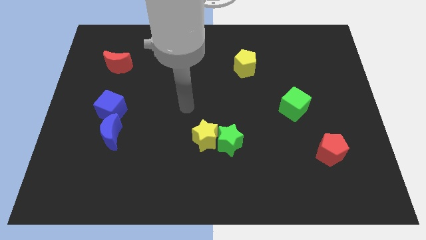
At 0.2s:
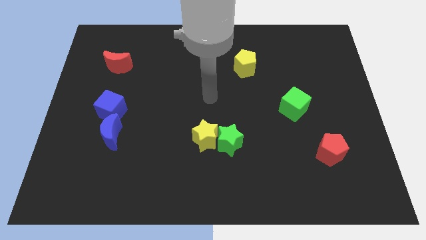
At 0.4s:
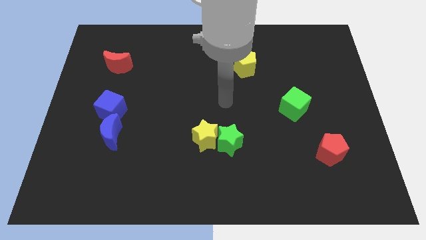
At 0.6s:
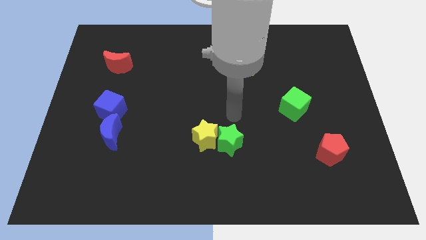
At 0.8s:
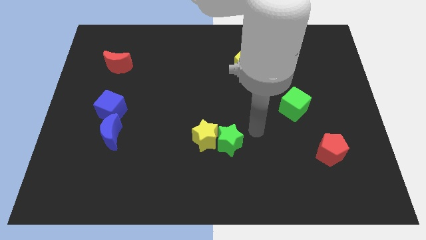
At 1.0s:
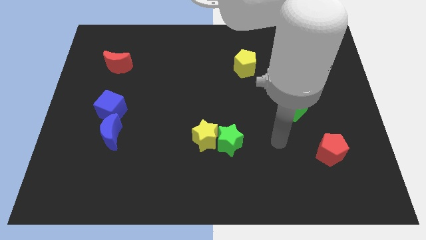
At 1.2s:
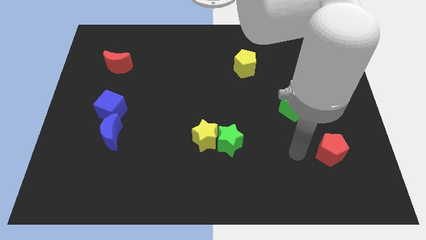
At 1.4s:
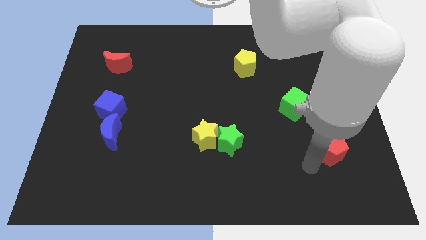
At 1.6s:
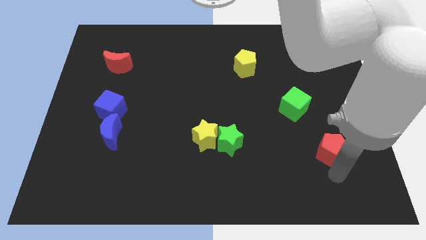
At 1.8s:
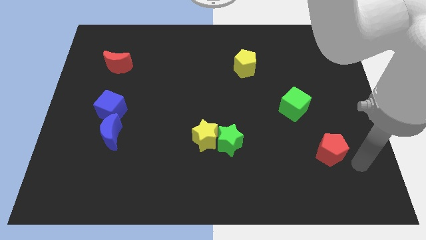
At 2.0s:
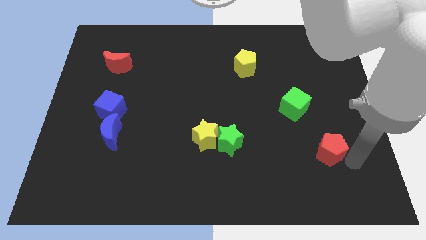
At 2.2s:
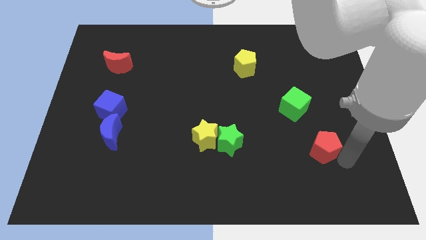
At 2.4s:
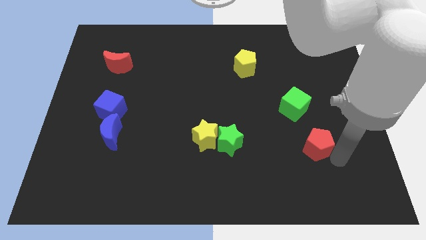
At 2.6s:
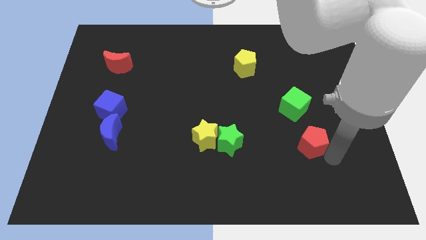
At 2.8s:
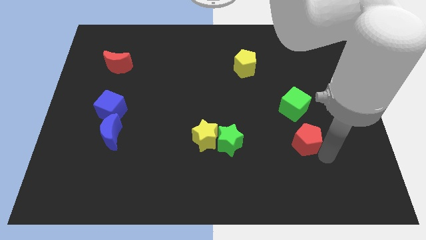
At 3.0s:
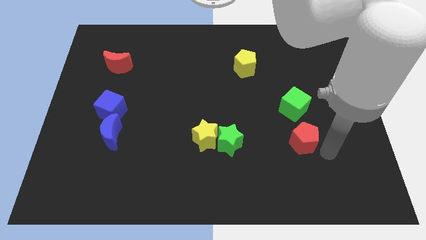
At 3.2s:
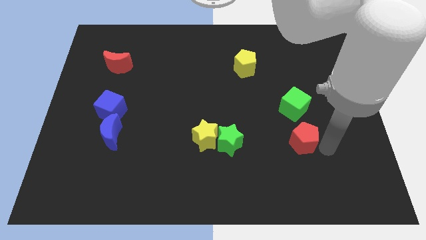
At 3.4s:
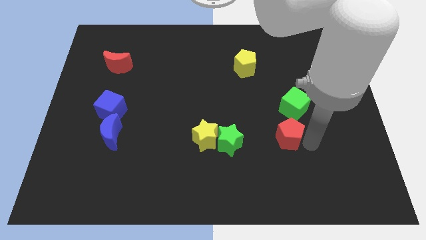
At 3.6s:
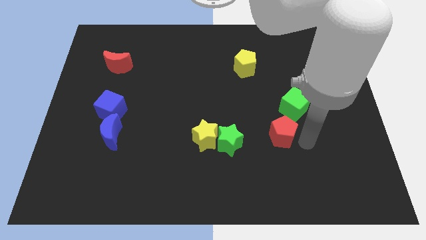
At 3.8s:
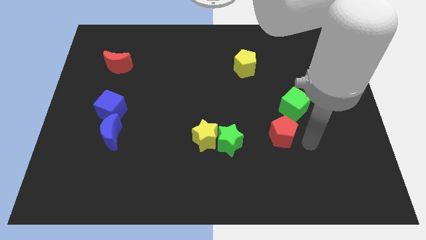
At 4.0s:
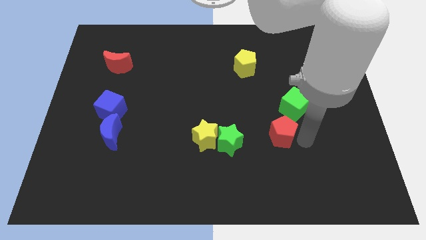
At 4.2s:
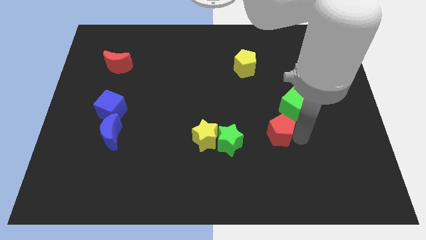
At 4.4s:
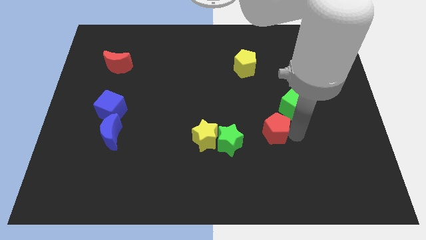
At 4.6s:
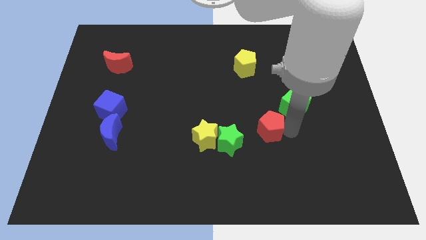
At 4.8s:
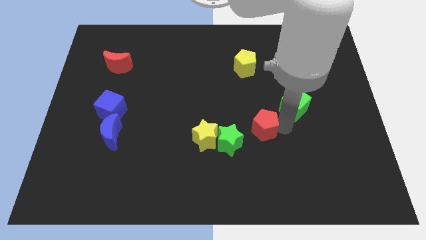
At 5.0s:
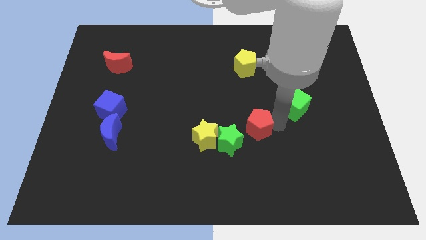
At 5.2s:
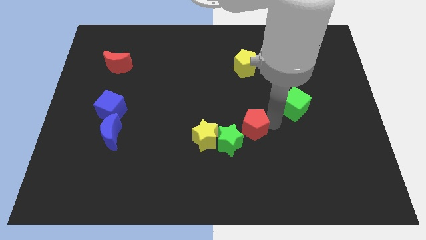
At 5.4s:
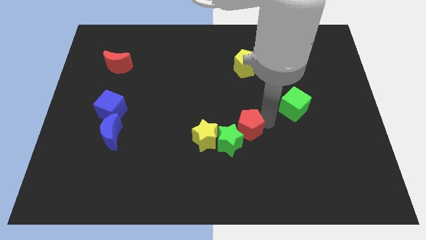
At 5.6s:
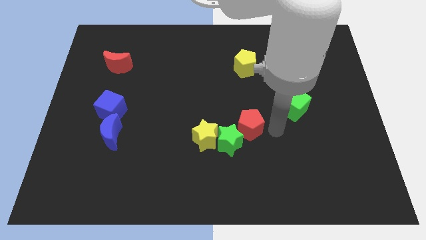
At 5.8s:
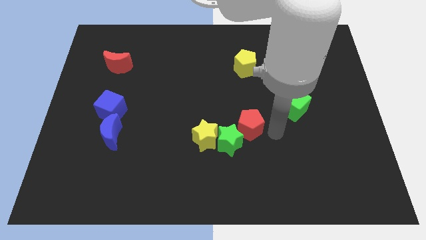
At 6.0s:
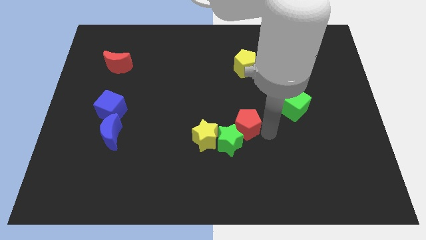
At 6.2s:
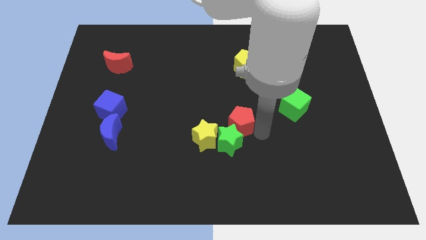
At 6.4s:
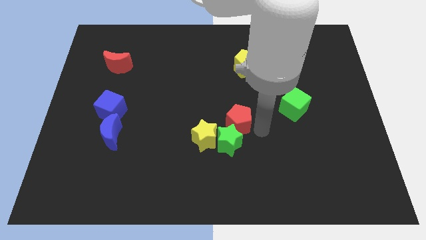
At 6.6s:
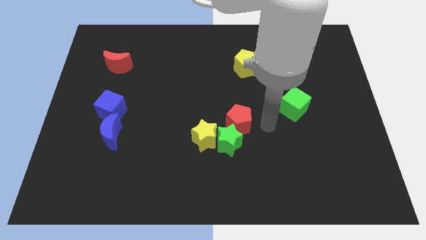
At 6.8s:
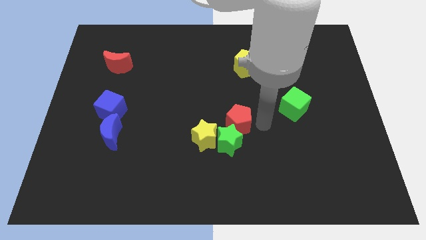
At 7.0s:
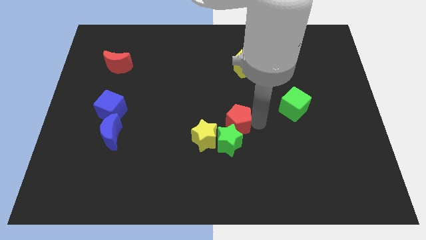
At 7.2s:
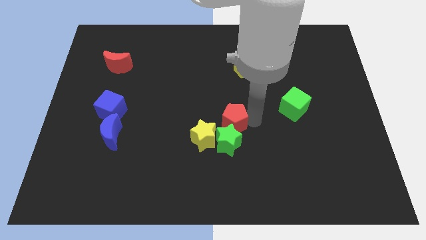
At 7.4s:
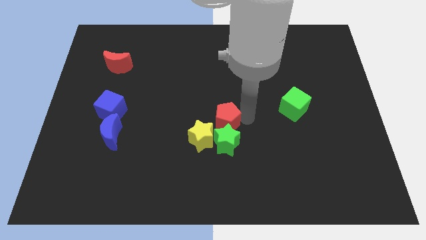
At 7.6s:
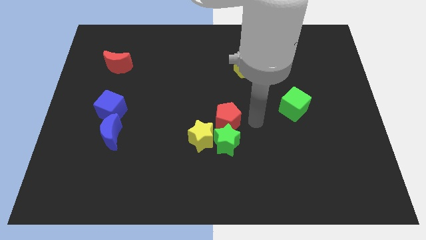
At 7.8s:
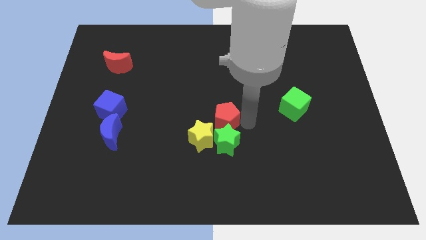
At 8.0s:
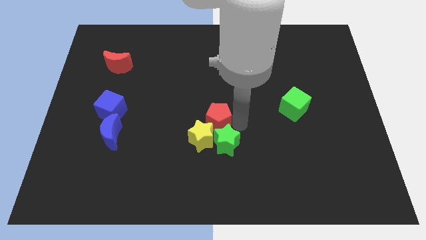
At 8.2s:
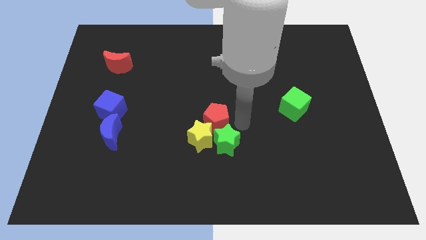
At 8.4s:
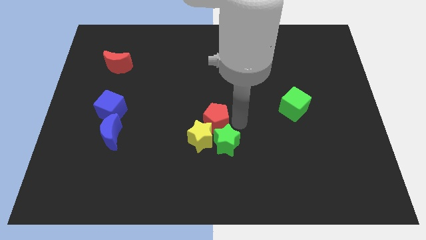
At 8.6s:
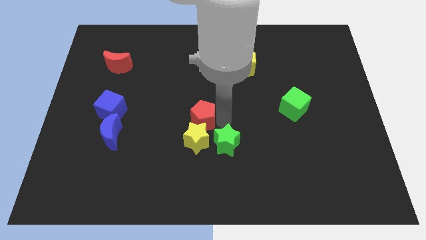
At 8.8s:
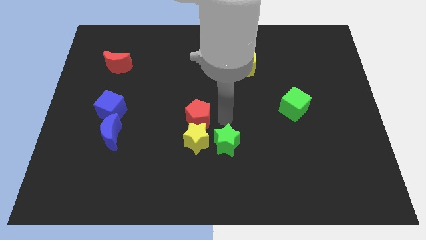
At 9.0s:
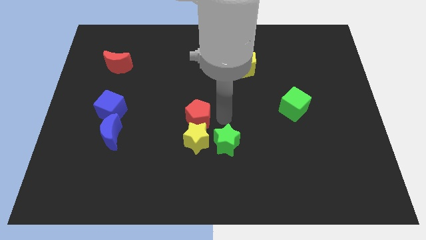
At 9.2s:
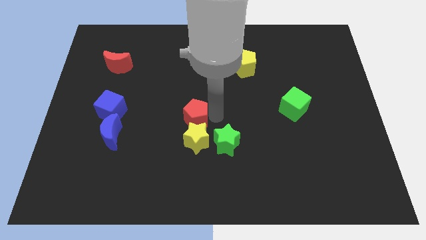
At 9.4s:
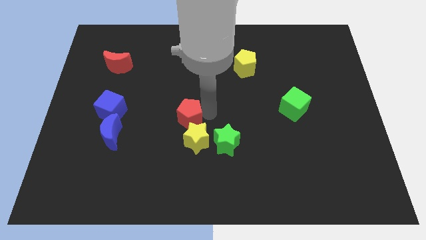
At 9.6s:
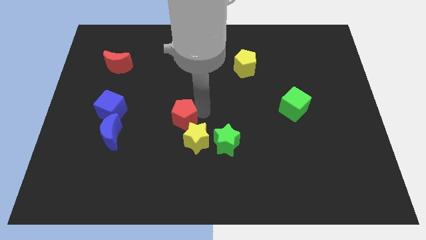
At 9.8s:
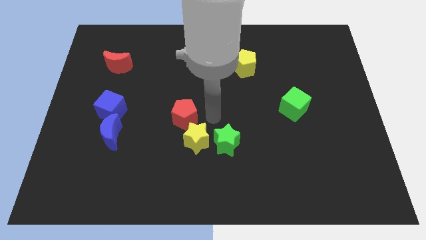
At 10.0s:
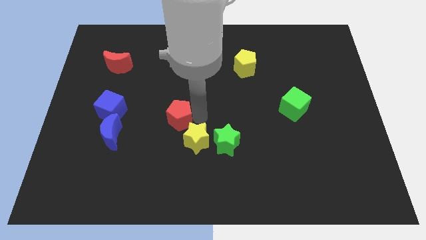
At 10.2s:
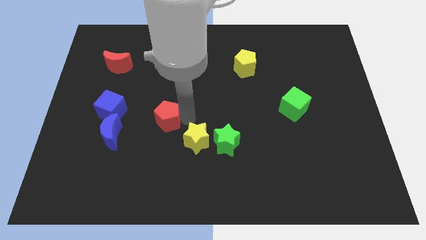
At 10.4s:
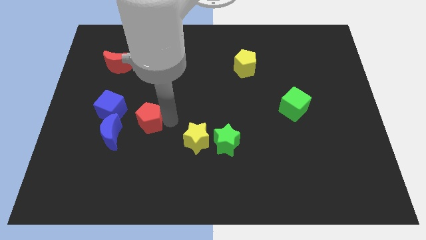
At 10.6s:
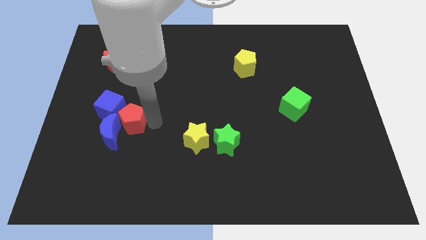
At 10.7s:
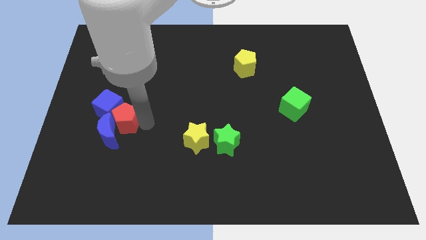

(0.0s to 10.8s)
slide the red pentagon close to the blue cube

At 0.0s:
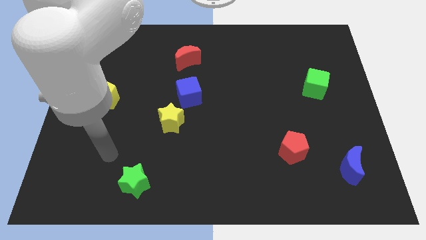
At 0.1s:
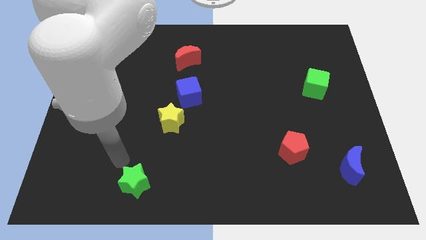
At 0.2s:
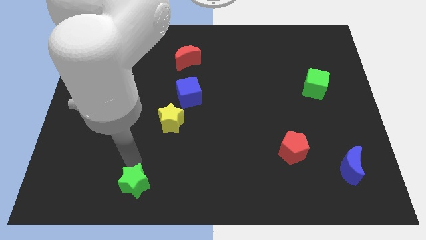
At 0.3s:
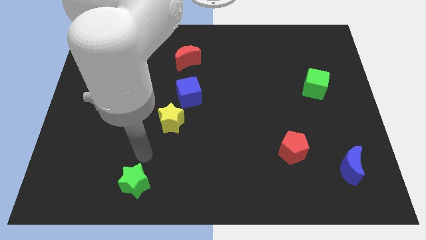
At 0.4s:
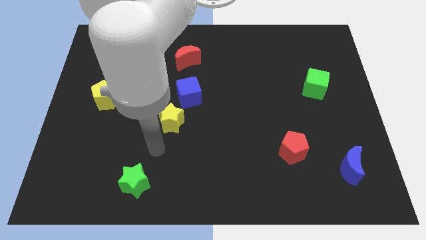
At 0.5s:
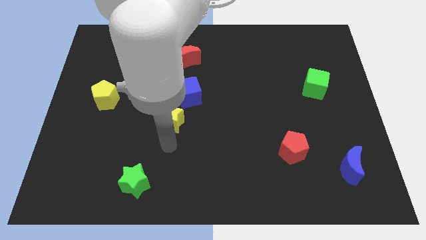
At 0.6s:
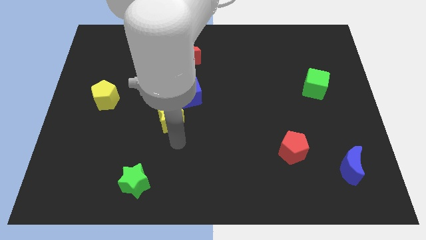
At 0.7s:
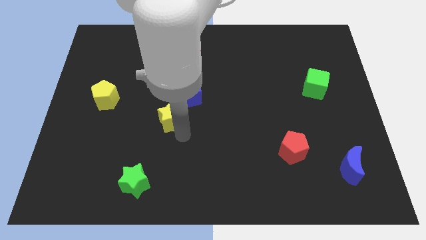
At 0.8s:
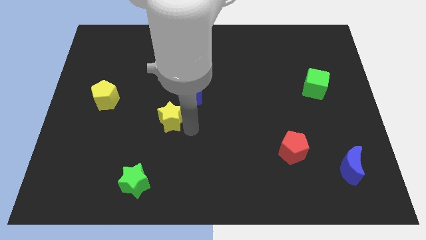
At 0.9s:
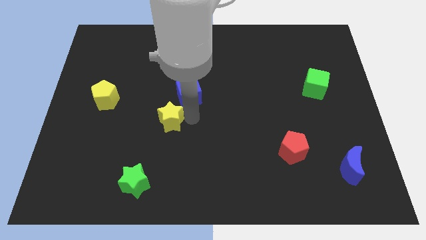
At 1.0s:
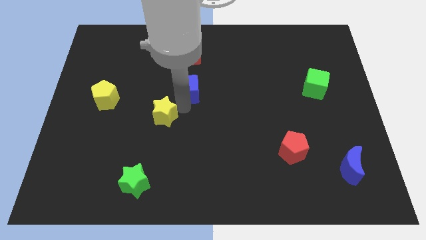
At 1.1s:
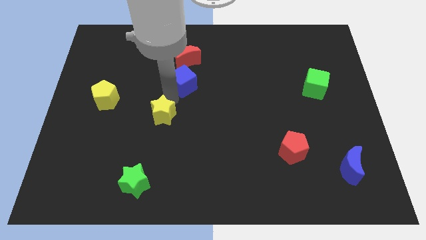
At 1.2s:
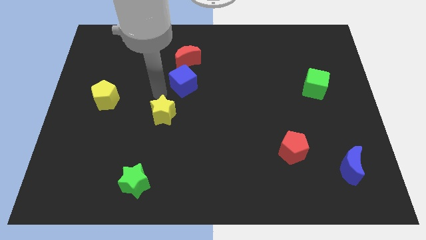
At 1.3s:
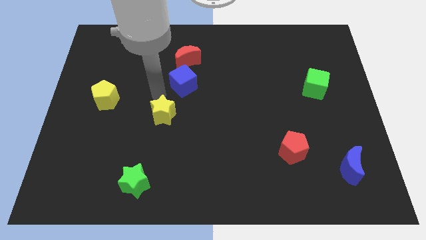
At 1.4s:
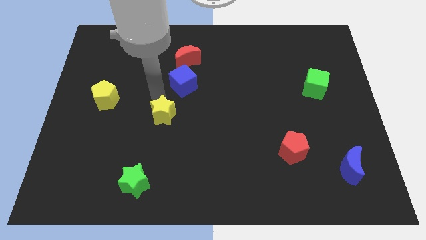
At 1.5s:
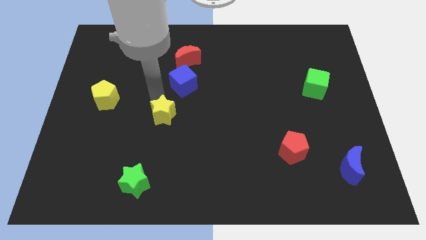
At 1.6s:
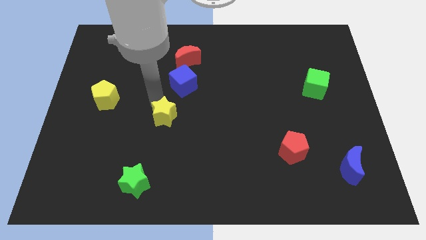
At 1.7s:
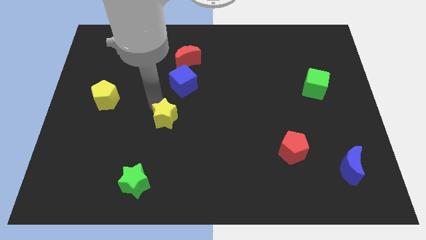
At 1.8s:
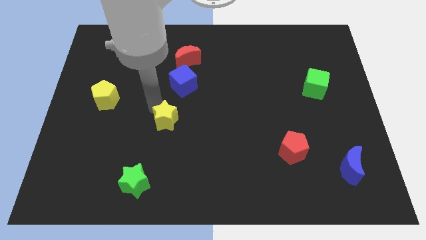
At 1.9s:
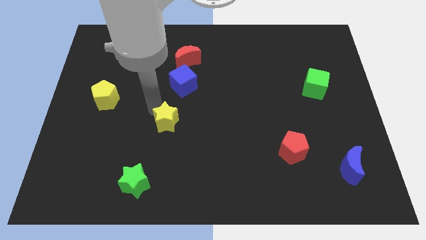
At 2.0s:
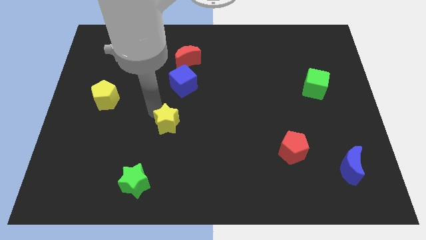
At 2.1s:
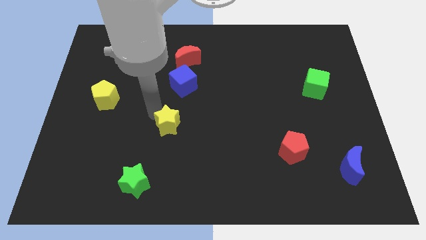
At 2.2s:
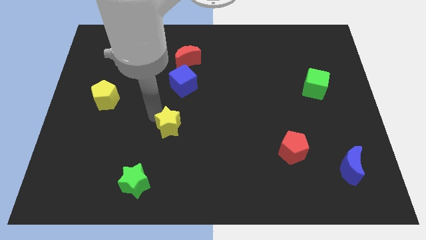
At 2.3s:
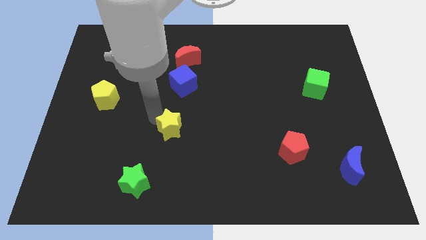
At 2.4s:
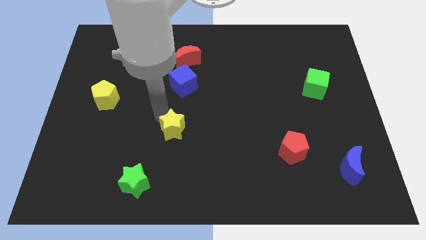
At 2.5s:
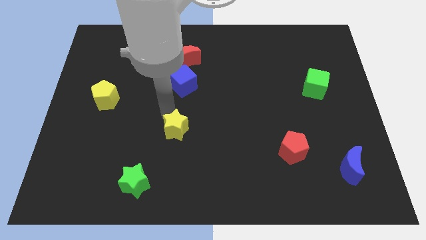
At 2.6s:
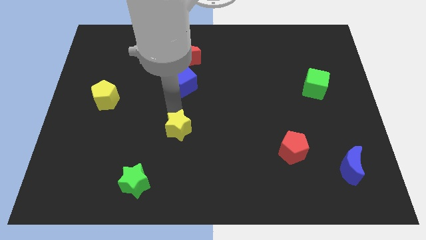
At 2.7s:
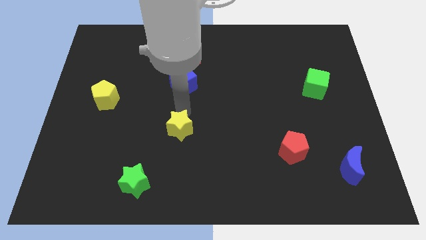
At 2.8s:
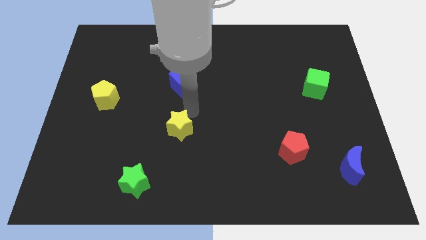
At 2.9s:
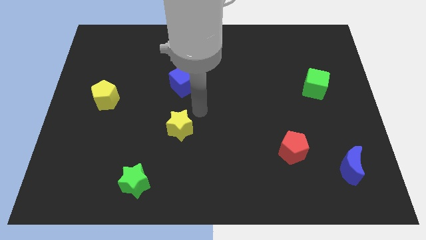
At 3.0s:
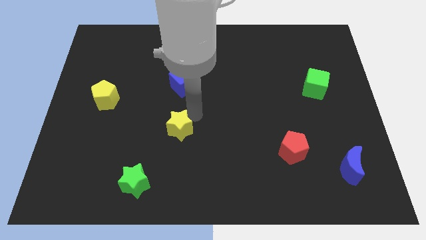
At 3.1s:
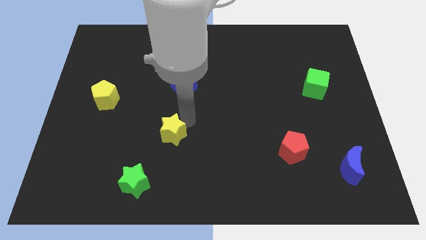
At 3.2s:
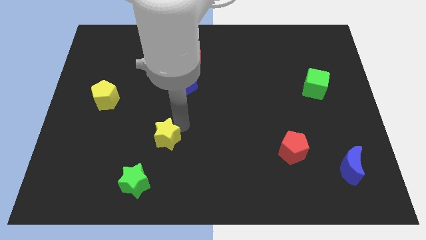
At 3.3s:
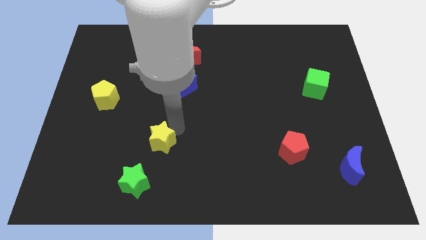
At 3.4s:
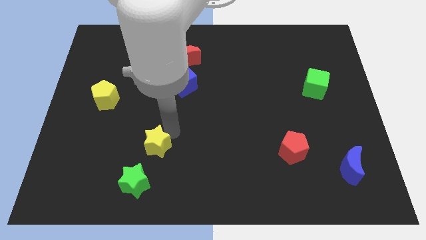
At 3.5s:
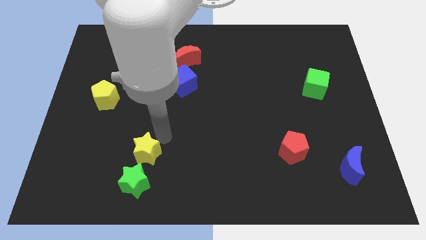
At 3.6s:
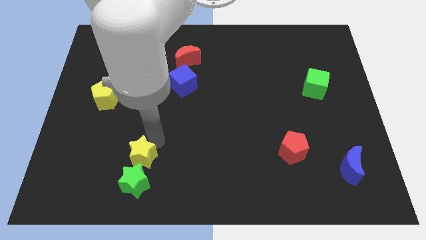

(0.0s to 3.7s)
push the yellow star close to the green star
